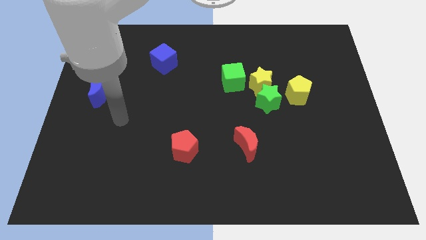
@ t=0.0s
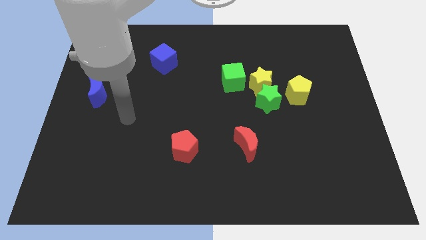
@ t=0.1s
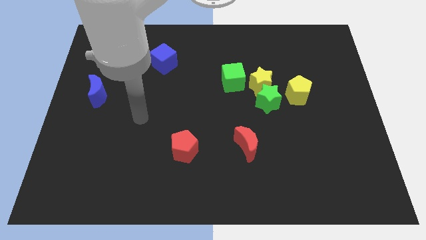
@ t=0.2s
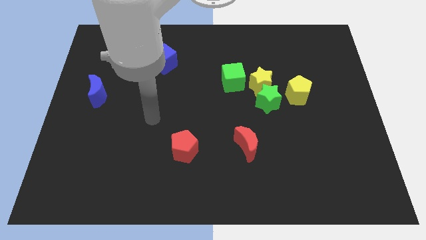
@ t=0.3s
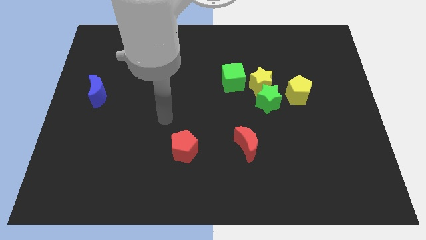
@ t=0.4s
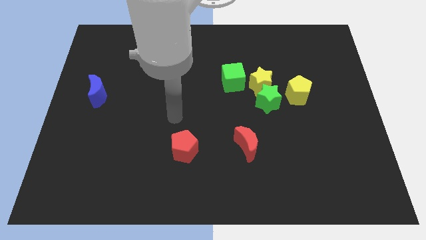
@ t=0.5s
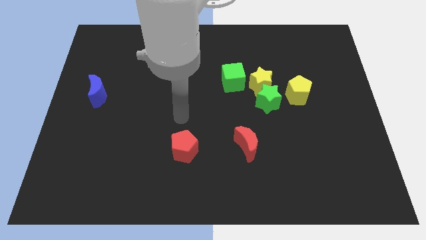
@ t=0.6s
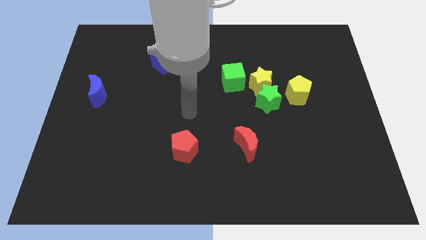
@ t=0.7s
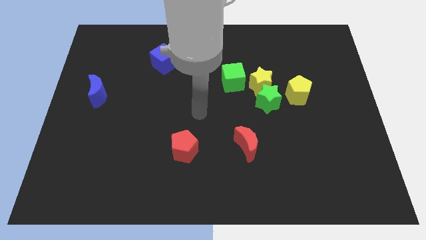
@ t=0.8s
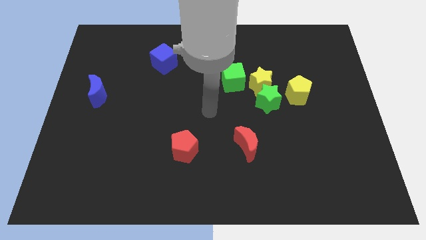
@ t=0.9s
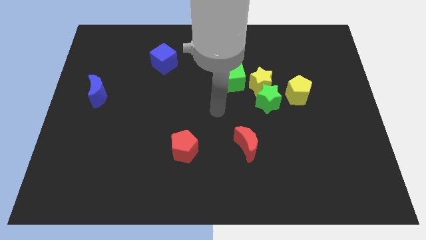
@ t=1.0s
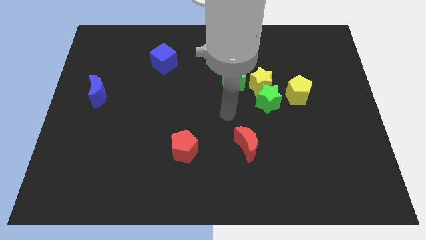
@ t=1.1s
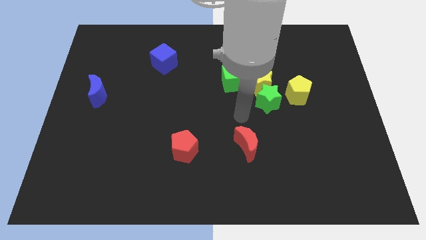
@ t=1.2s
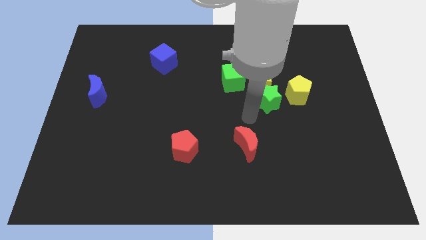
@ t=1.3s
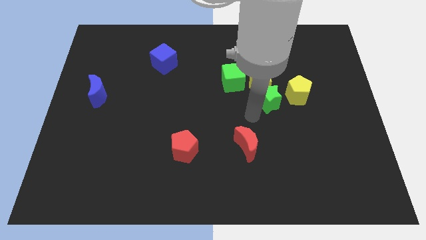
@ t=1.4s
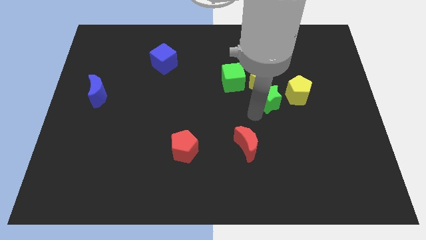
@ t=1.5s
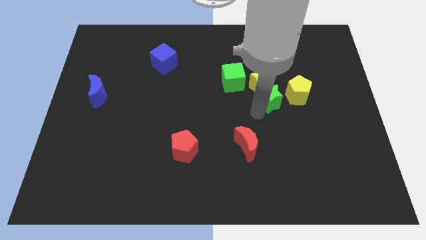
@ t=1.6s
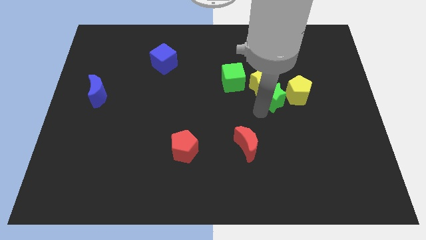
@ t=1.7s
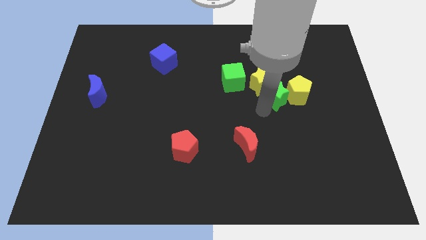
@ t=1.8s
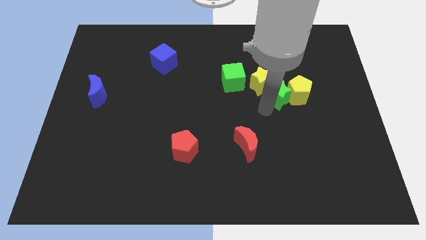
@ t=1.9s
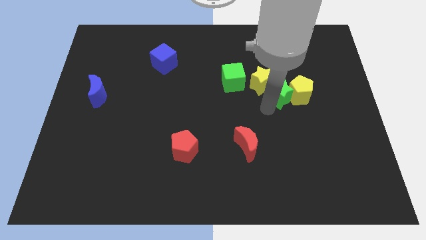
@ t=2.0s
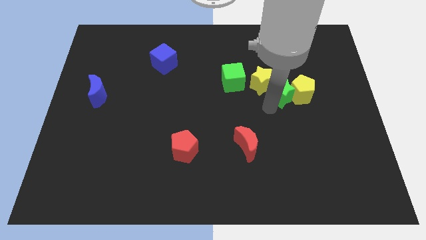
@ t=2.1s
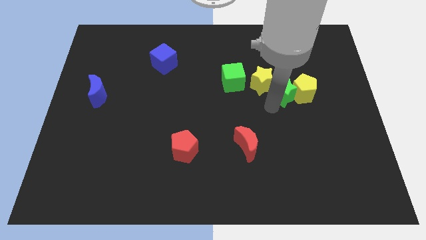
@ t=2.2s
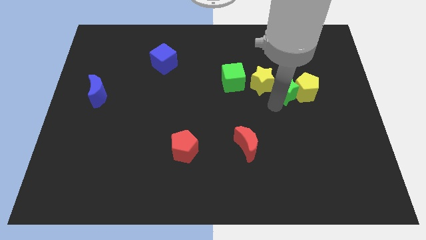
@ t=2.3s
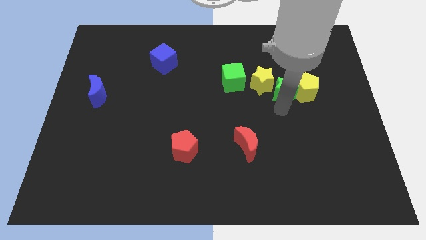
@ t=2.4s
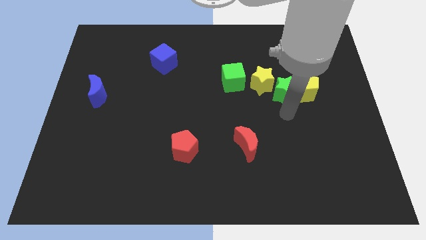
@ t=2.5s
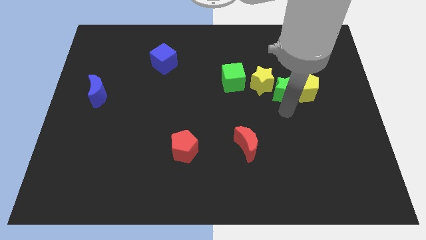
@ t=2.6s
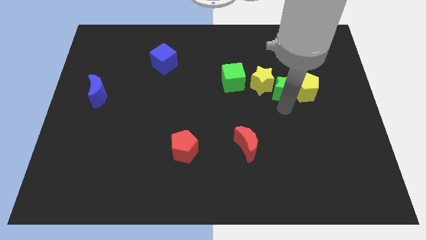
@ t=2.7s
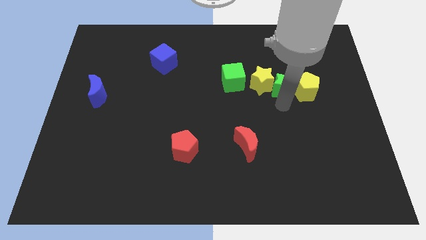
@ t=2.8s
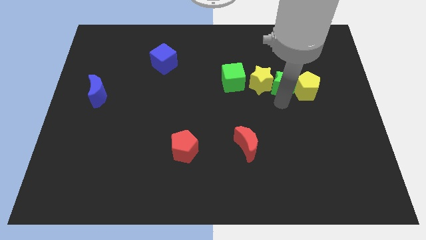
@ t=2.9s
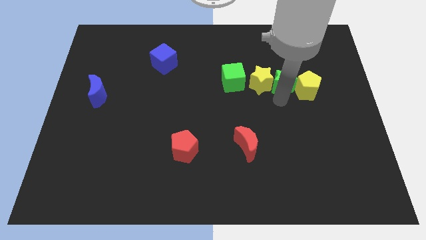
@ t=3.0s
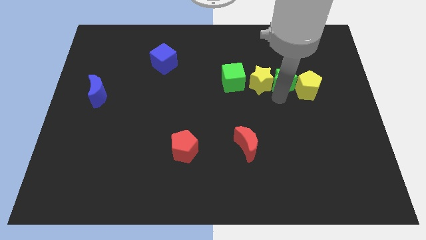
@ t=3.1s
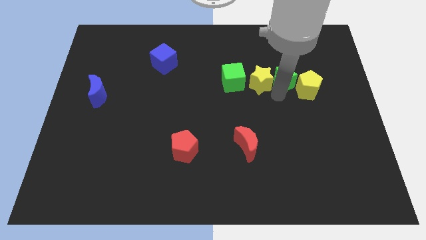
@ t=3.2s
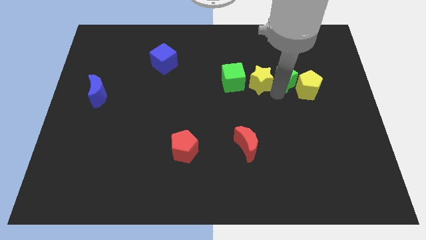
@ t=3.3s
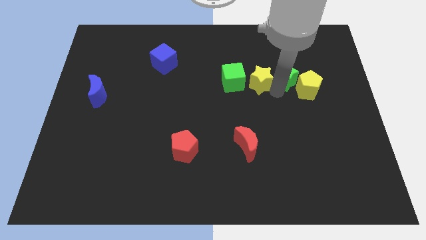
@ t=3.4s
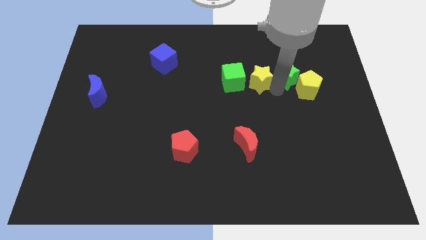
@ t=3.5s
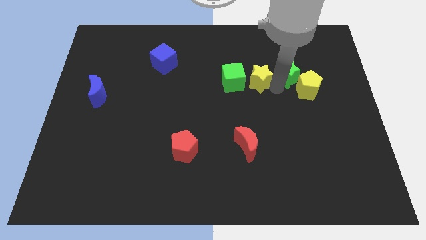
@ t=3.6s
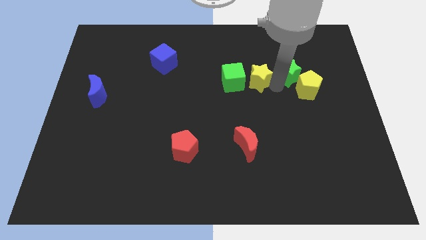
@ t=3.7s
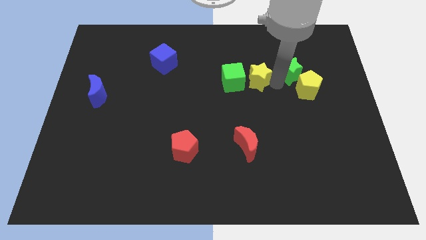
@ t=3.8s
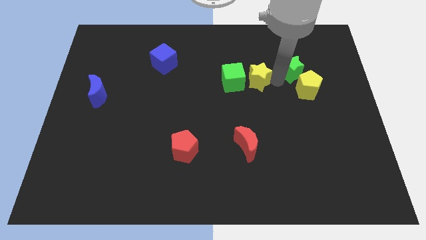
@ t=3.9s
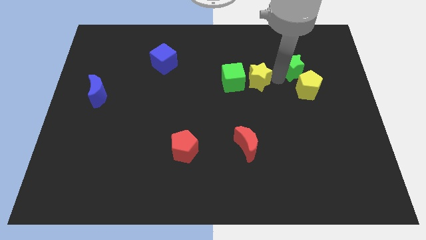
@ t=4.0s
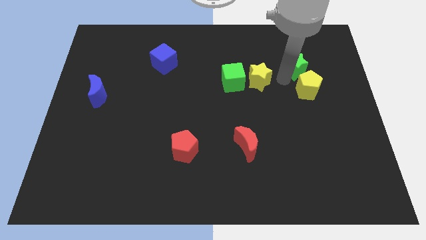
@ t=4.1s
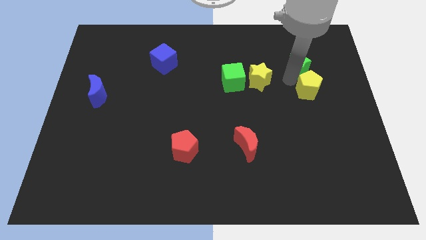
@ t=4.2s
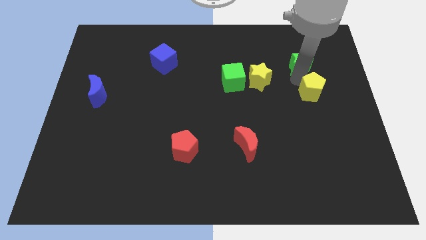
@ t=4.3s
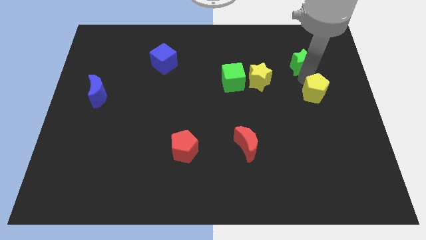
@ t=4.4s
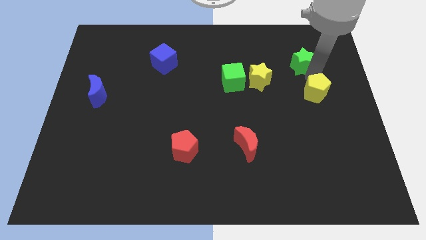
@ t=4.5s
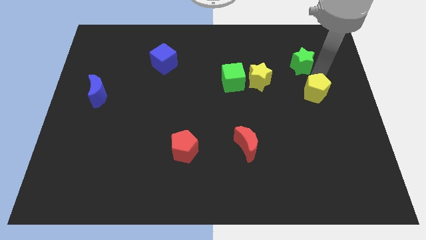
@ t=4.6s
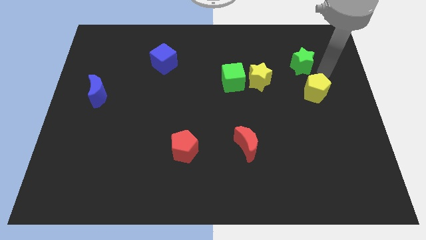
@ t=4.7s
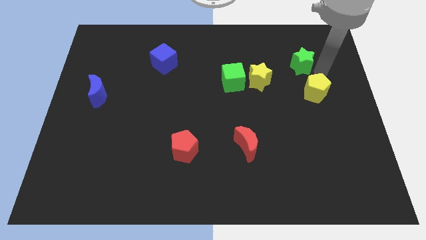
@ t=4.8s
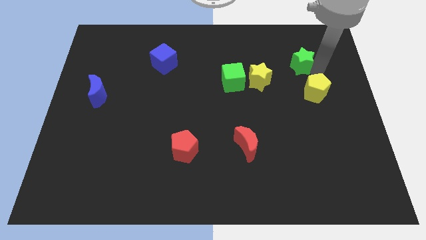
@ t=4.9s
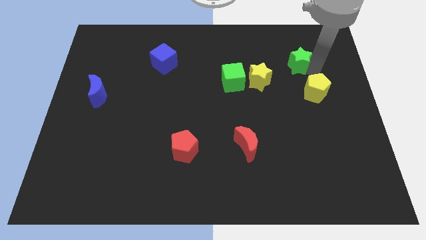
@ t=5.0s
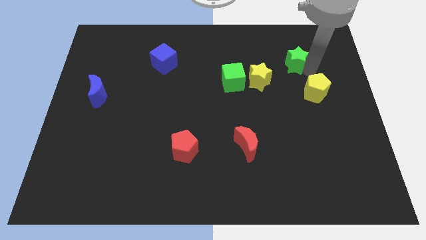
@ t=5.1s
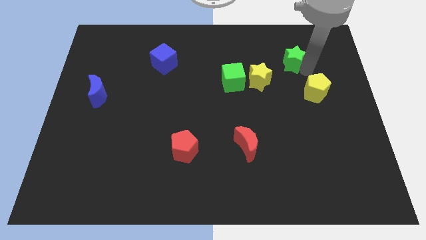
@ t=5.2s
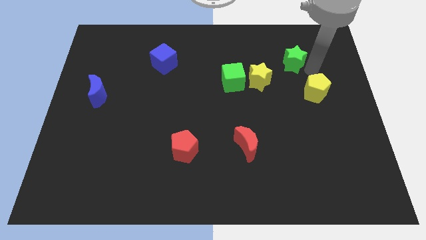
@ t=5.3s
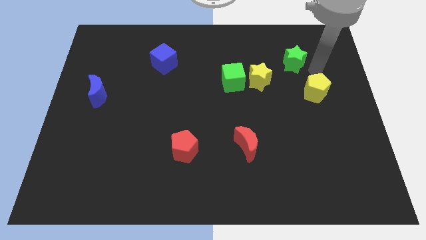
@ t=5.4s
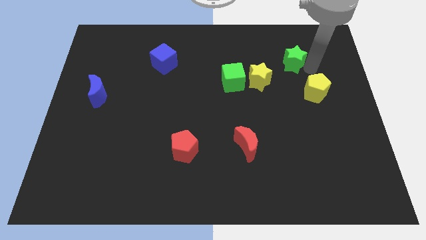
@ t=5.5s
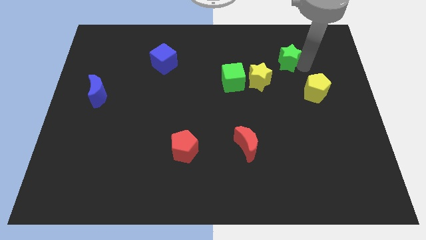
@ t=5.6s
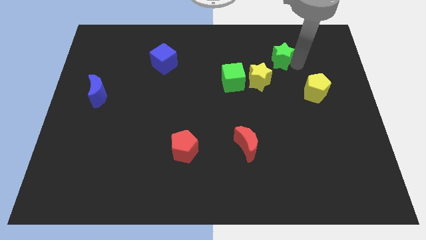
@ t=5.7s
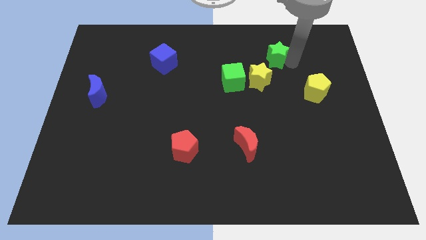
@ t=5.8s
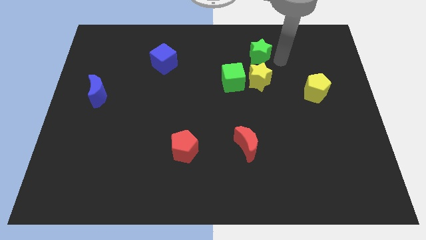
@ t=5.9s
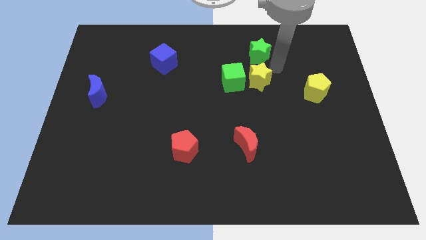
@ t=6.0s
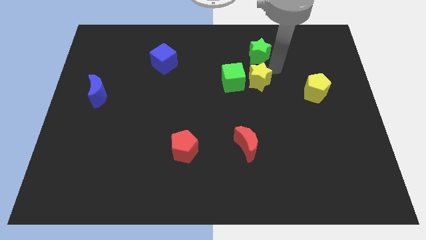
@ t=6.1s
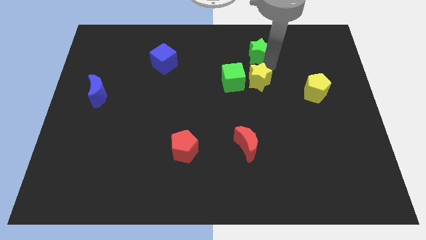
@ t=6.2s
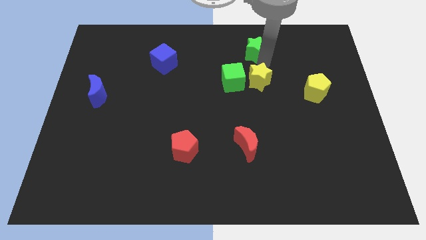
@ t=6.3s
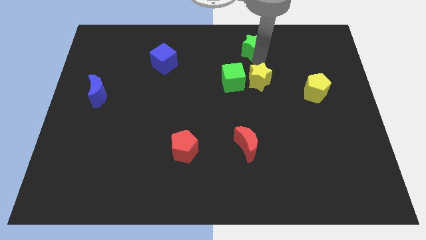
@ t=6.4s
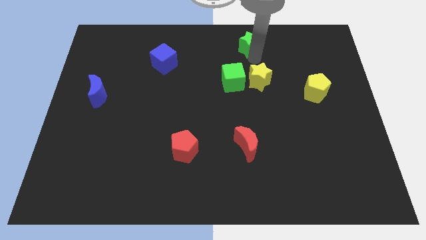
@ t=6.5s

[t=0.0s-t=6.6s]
put the green star to the top
